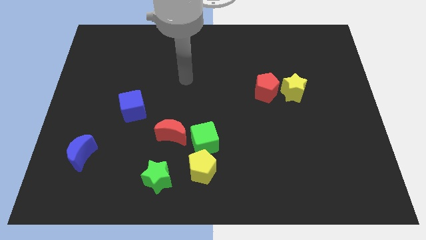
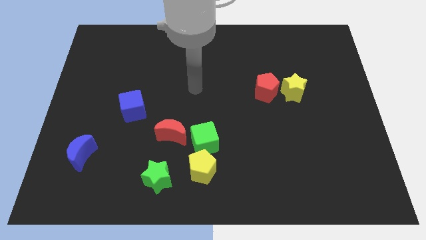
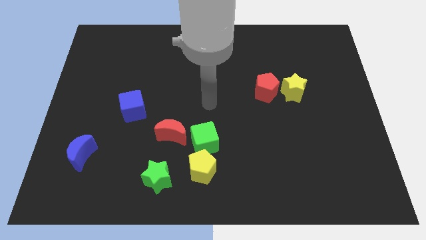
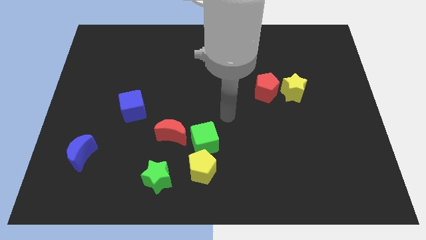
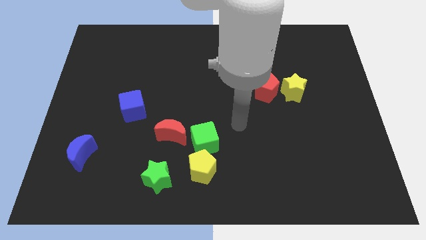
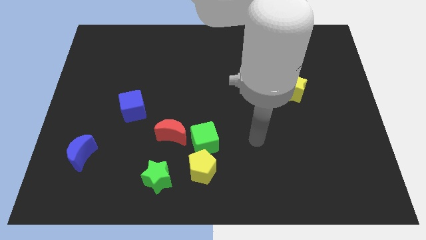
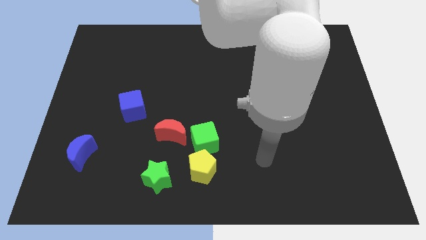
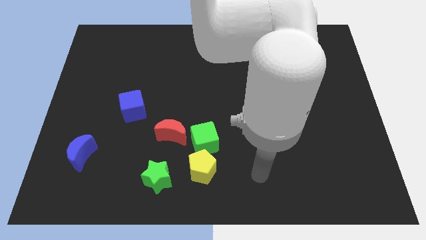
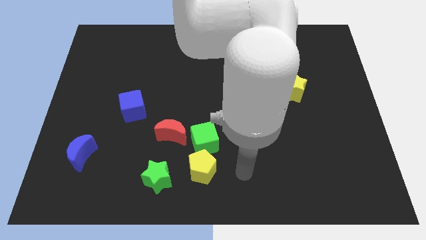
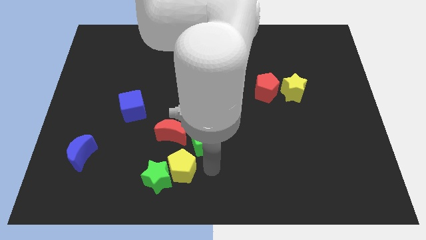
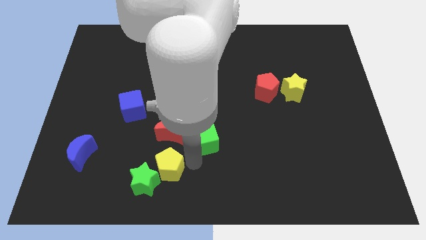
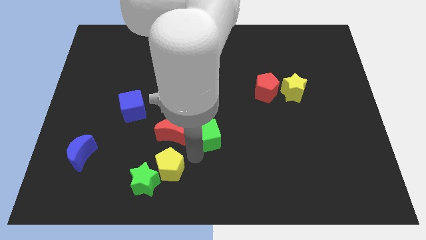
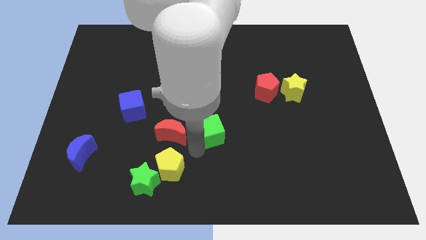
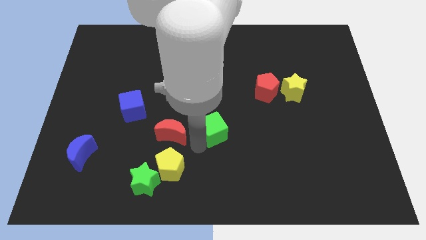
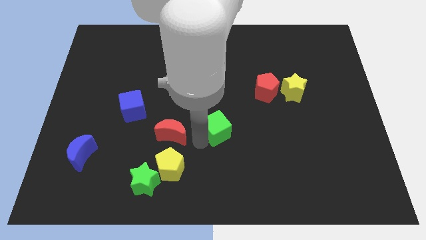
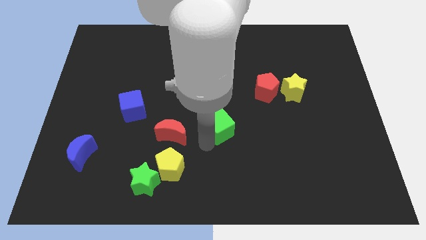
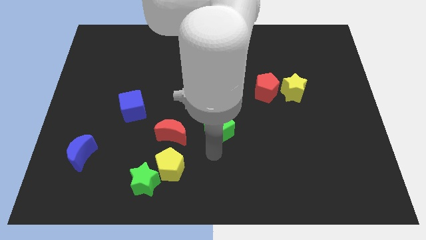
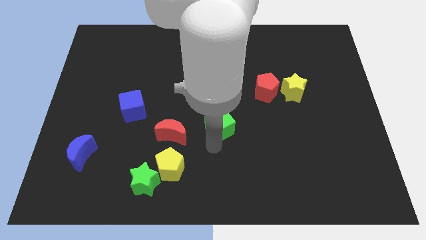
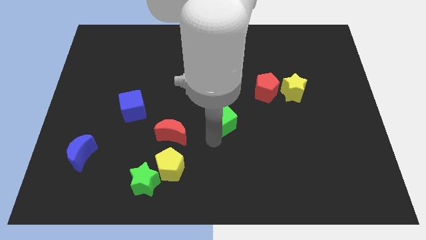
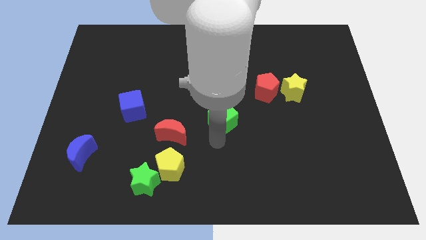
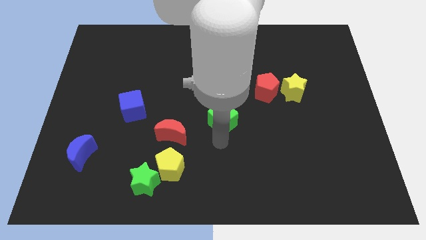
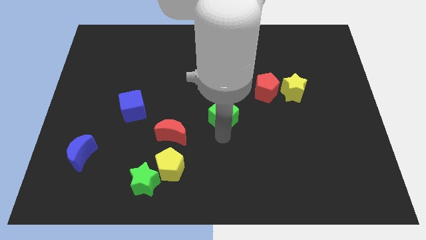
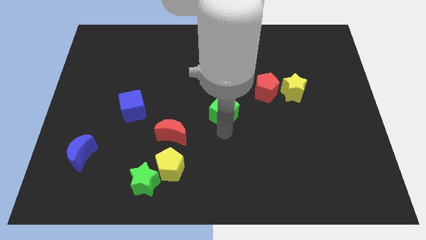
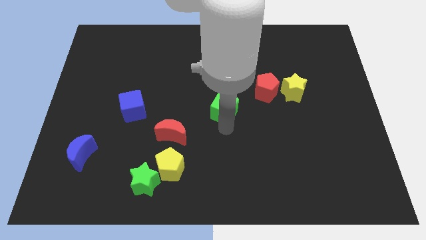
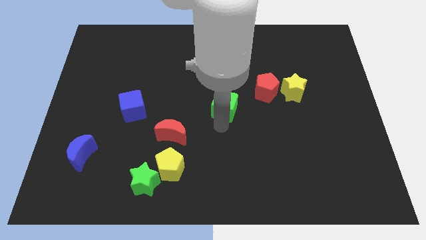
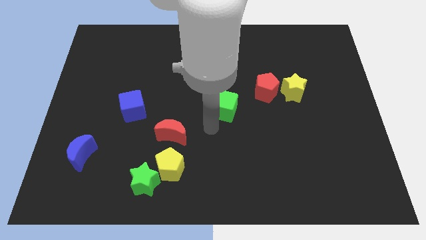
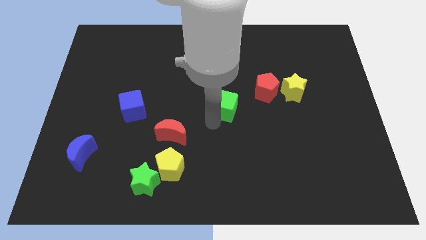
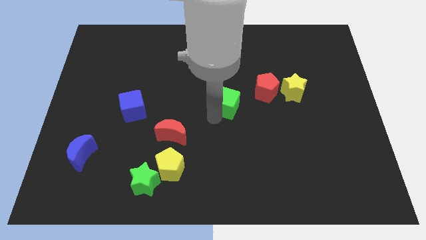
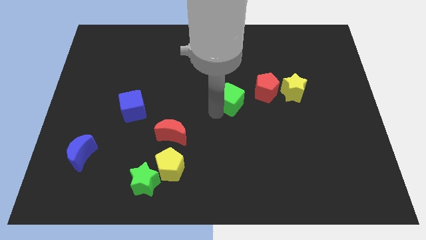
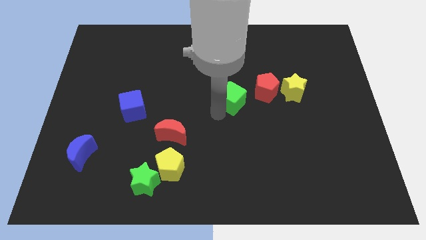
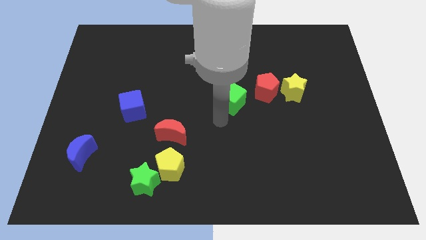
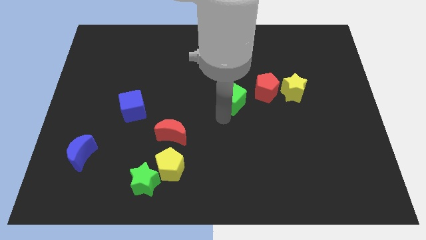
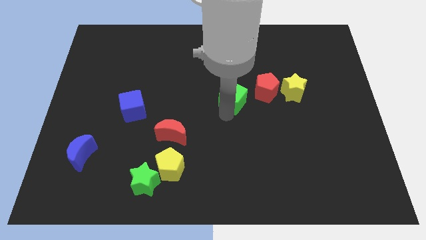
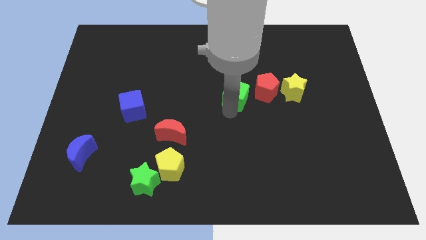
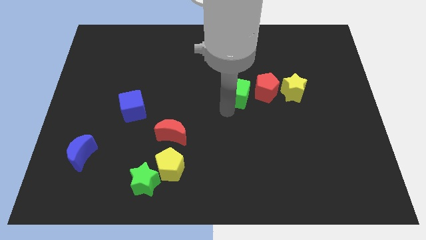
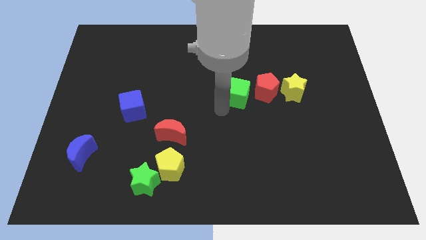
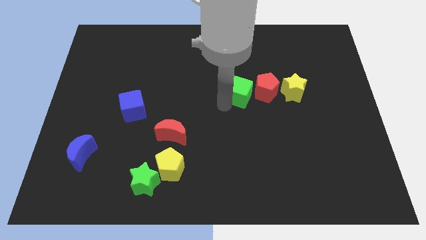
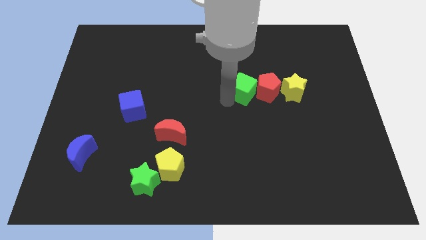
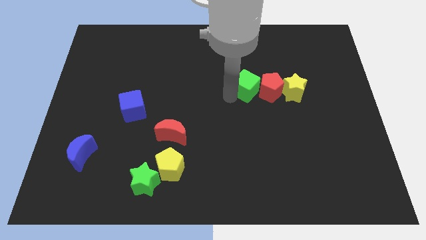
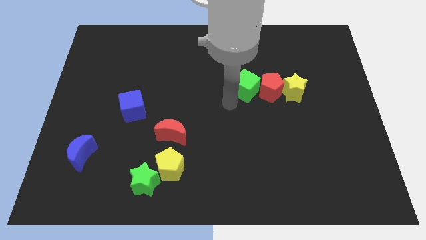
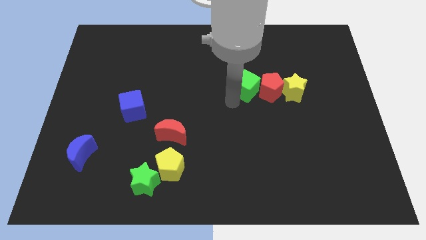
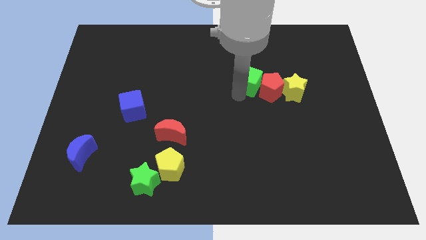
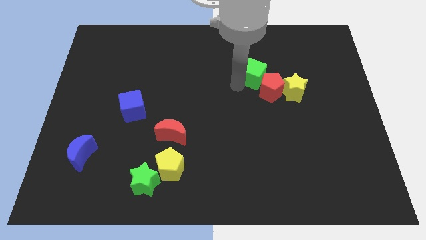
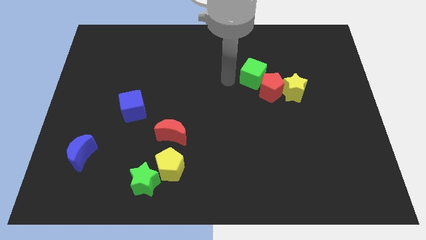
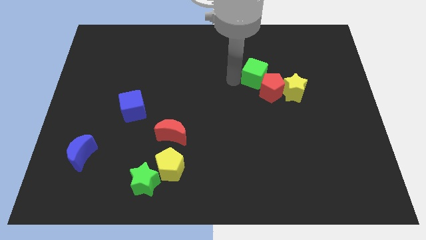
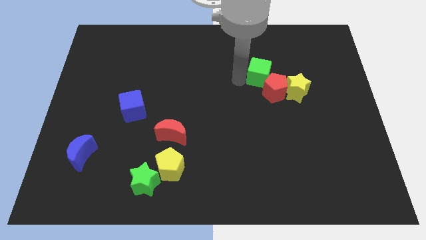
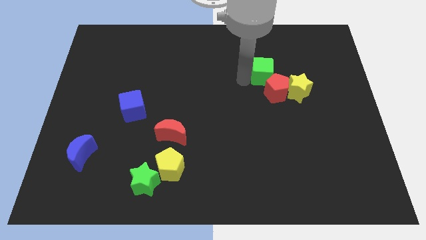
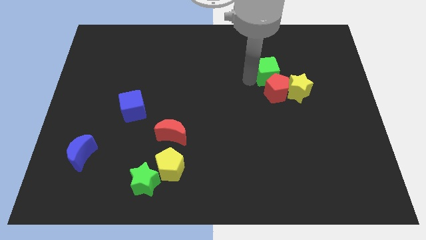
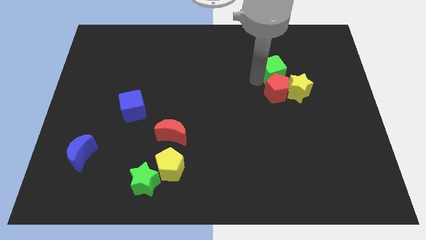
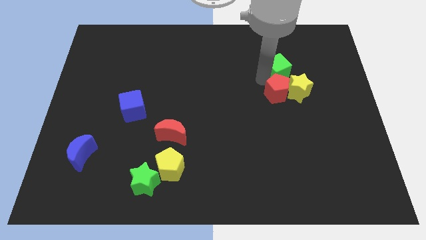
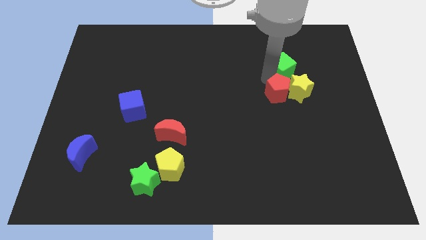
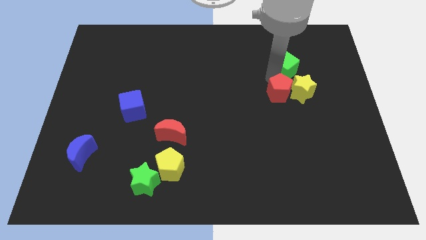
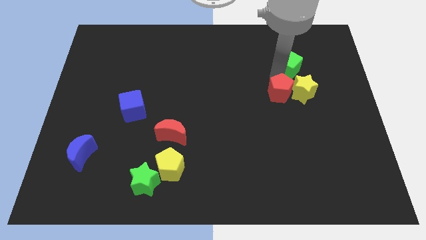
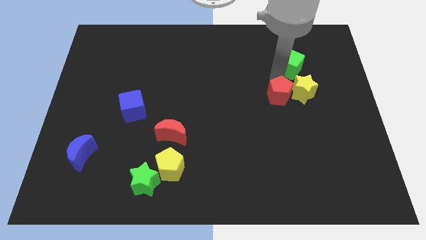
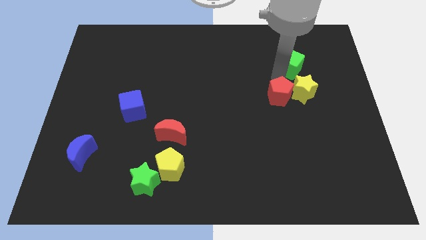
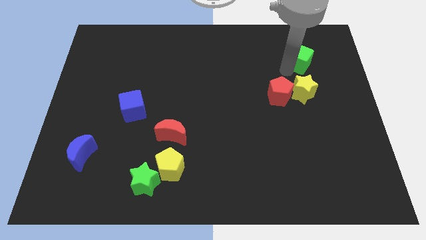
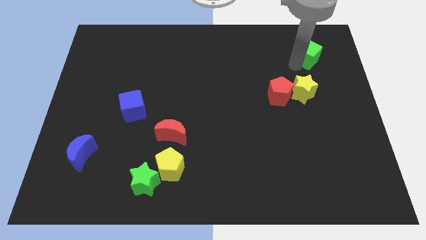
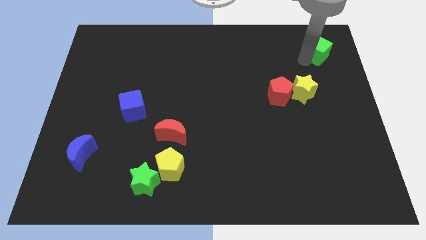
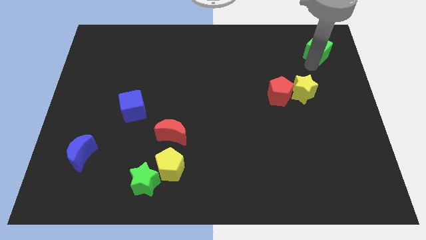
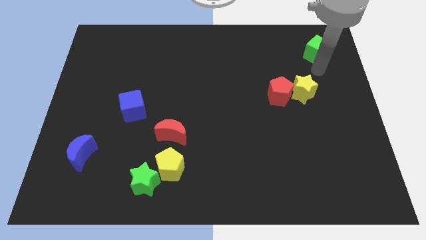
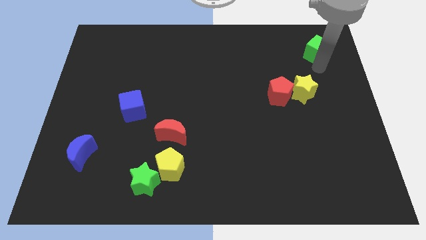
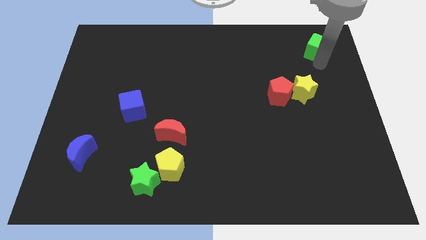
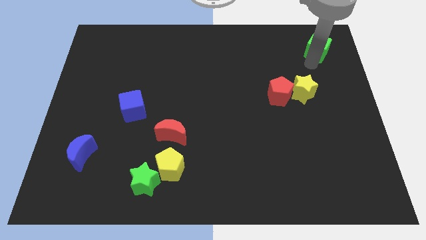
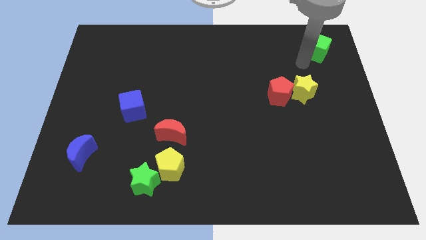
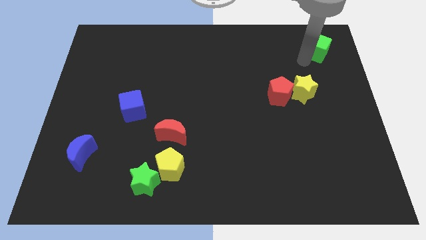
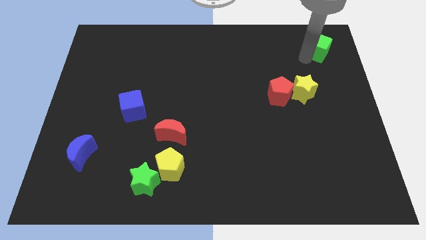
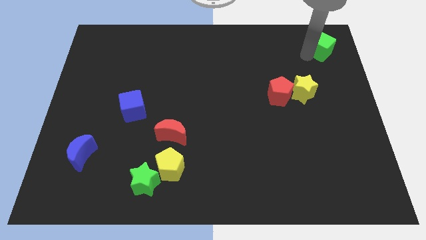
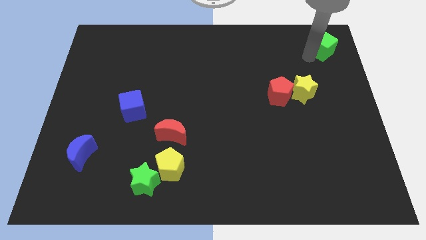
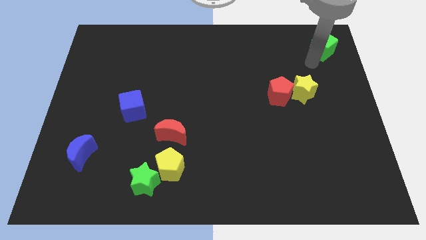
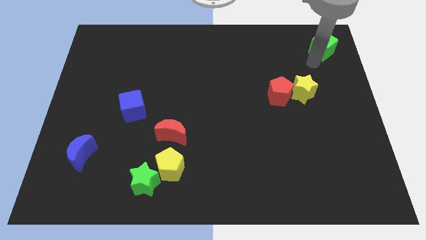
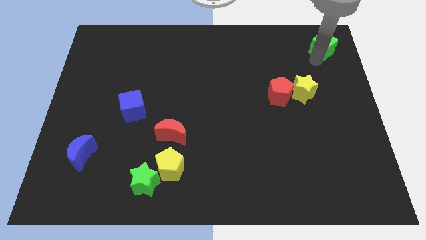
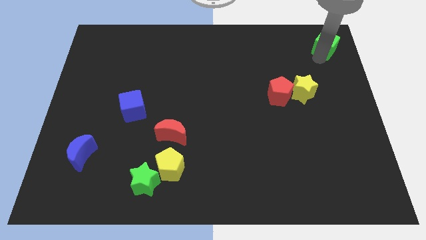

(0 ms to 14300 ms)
put the green cube to the top right of the board
